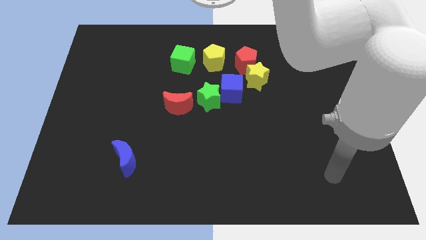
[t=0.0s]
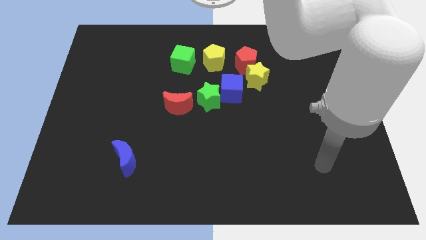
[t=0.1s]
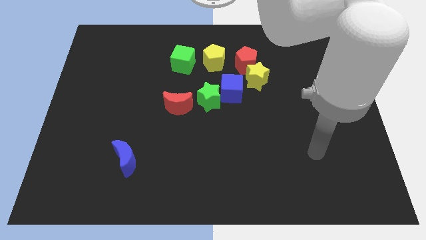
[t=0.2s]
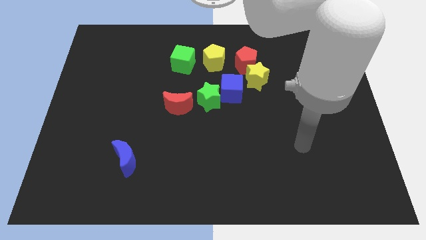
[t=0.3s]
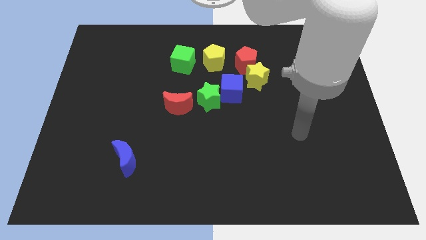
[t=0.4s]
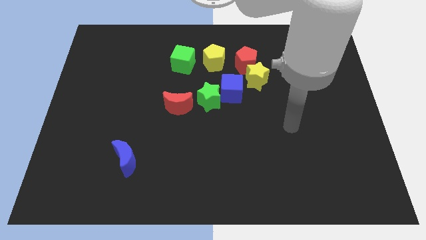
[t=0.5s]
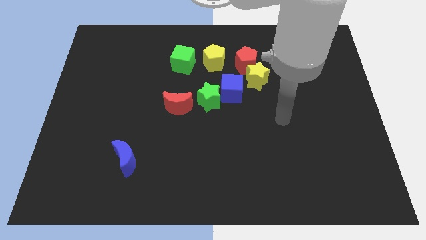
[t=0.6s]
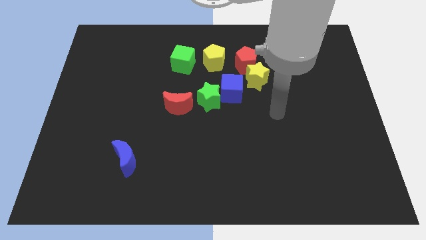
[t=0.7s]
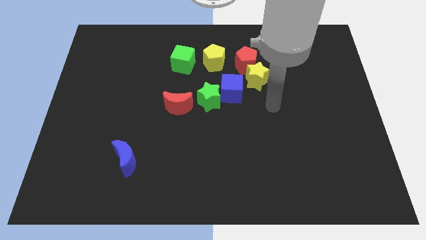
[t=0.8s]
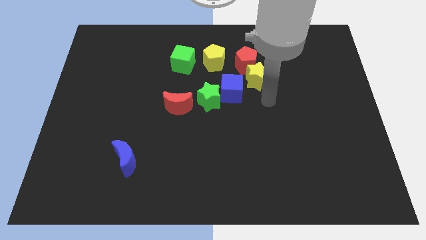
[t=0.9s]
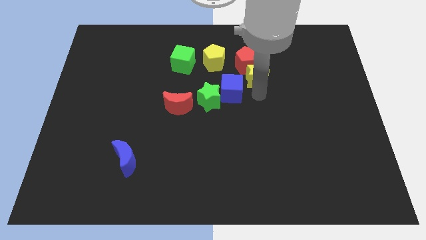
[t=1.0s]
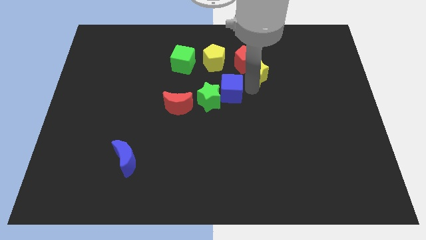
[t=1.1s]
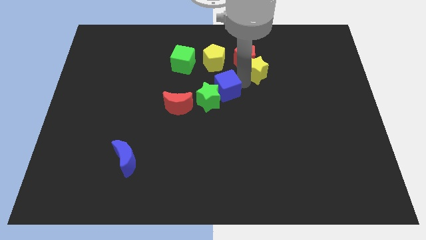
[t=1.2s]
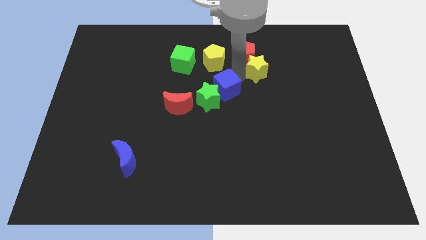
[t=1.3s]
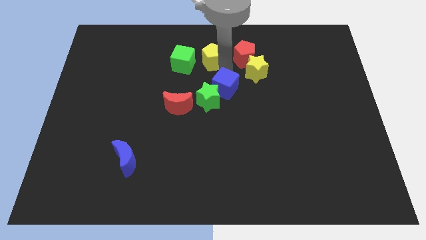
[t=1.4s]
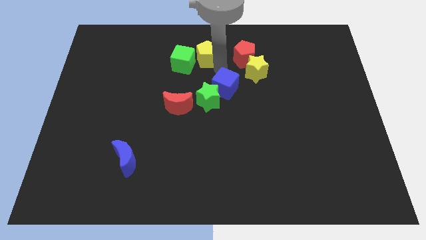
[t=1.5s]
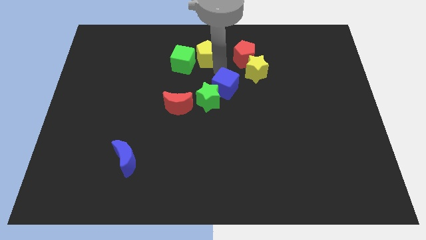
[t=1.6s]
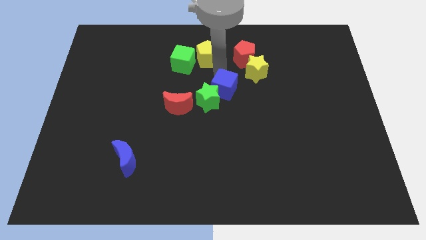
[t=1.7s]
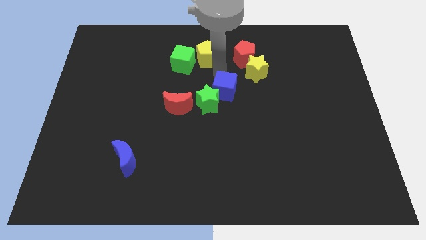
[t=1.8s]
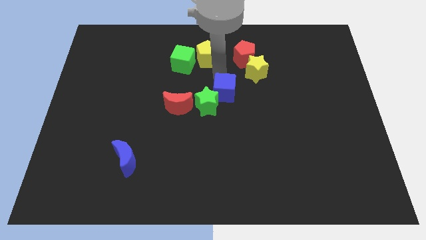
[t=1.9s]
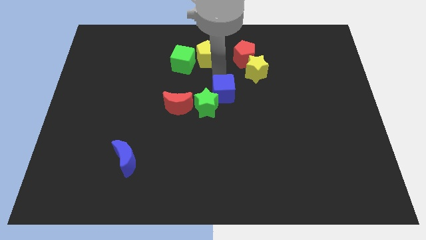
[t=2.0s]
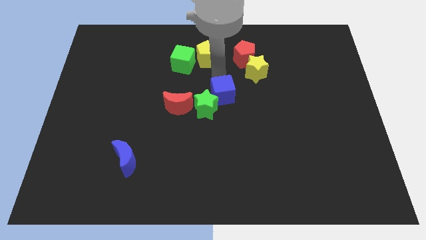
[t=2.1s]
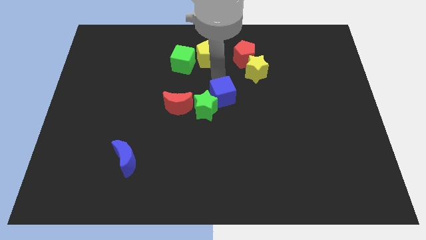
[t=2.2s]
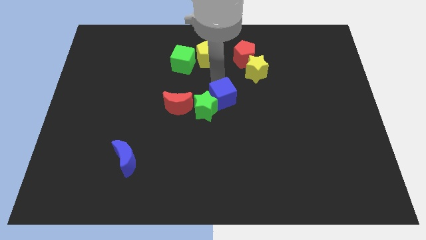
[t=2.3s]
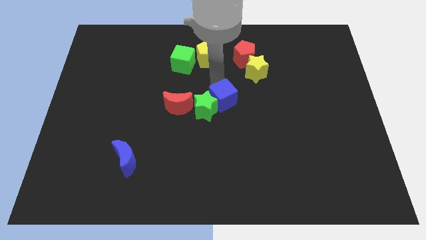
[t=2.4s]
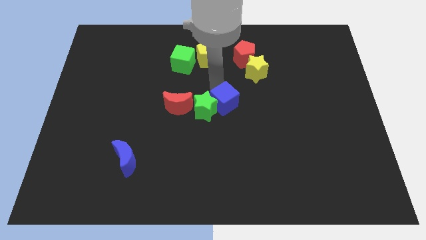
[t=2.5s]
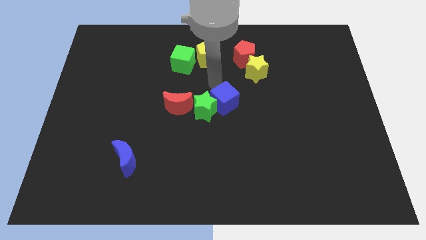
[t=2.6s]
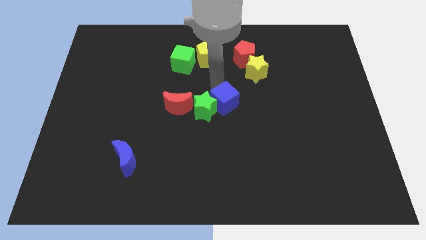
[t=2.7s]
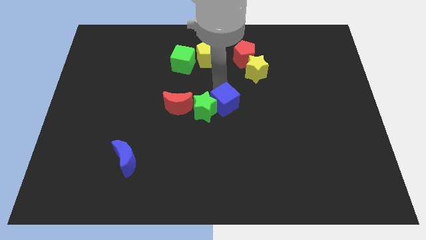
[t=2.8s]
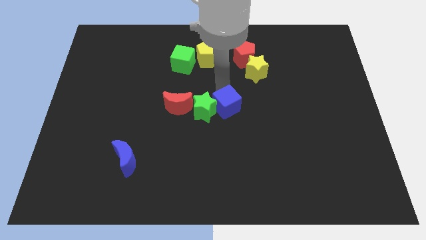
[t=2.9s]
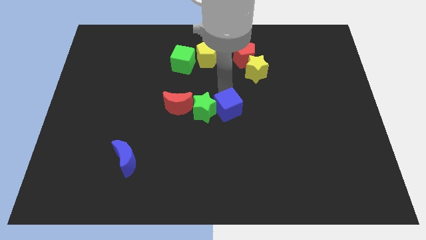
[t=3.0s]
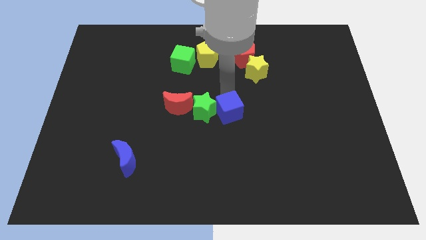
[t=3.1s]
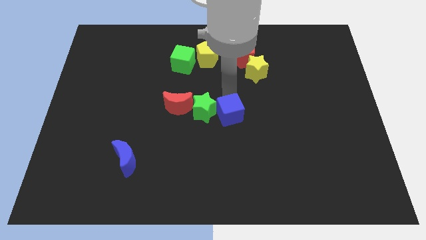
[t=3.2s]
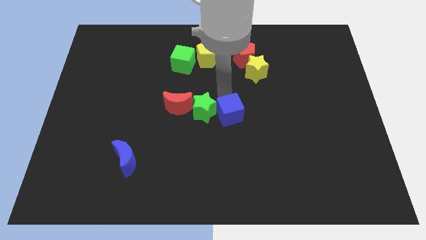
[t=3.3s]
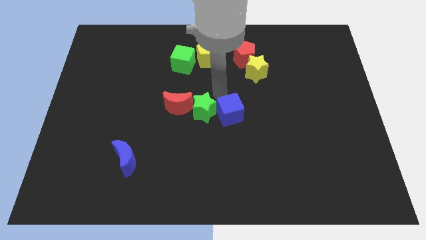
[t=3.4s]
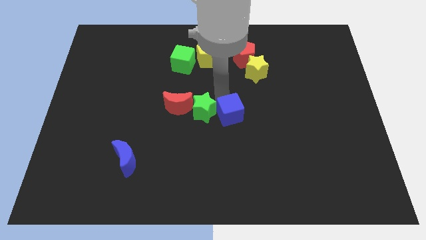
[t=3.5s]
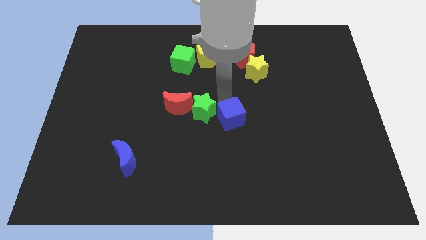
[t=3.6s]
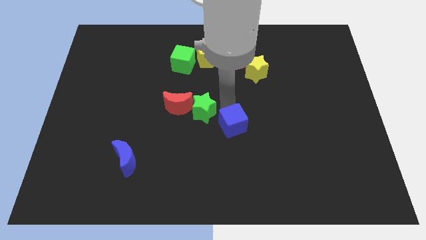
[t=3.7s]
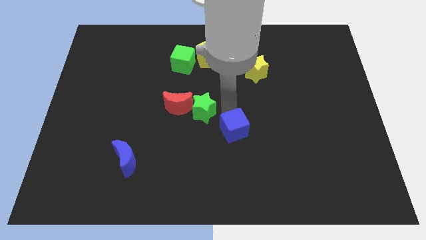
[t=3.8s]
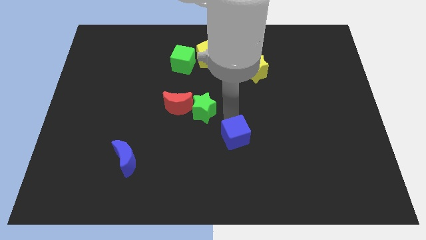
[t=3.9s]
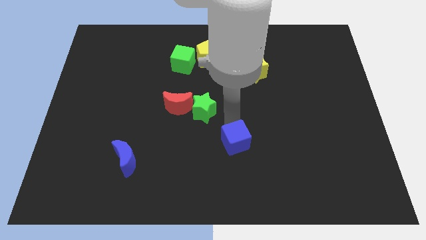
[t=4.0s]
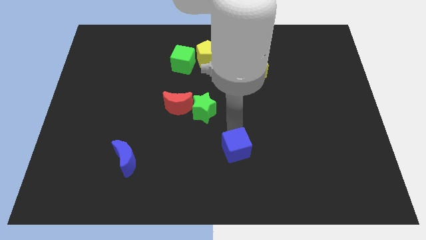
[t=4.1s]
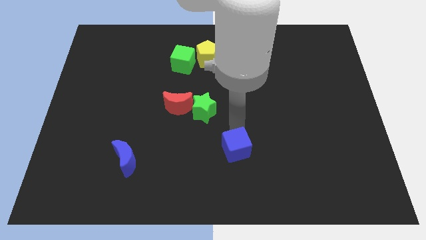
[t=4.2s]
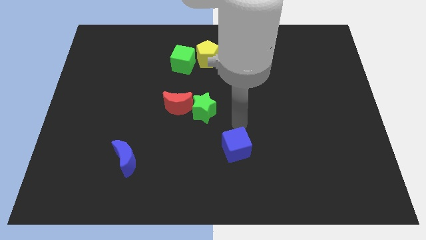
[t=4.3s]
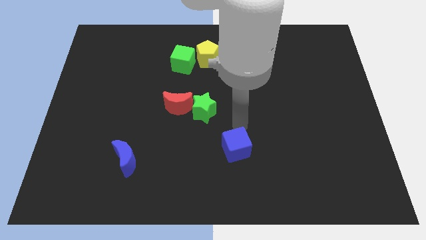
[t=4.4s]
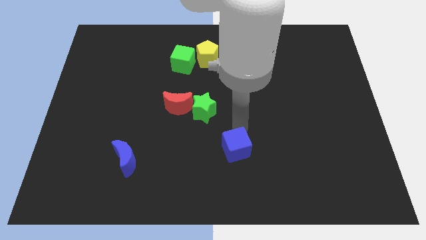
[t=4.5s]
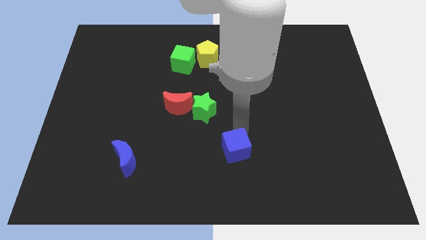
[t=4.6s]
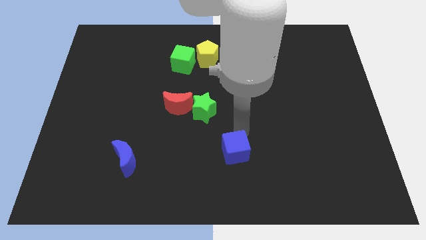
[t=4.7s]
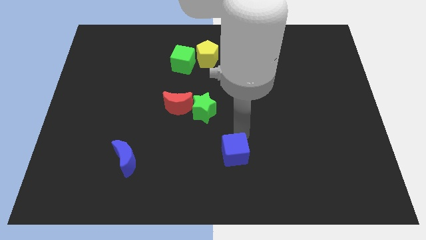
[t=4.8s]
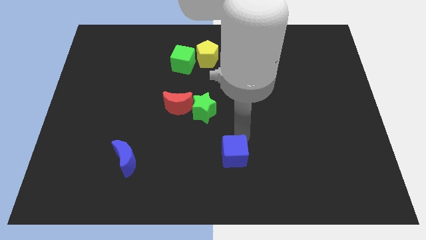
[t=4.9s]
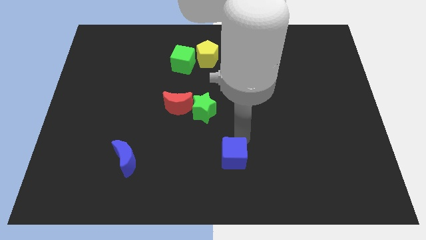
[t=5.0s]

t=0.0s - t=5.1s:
move the blue cube to the bottom side

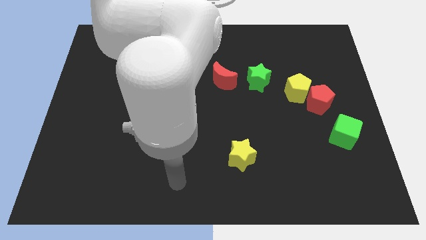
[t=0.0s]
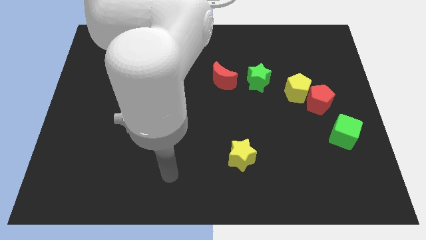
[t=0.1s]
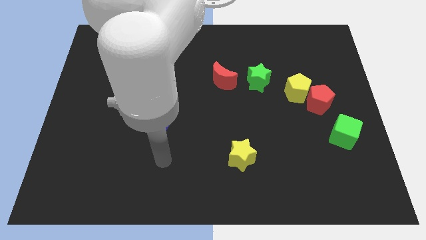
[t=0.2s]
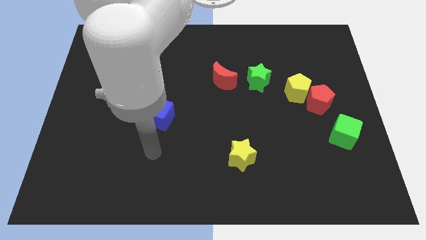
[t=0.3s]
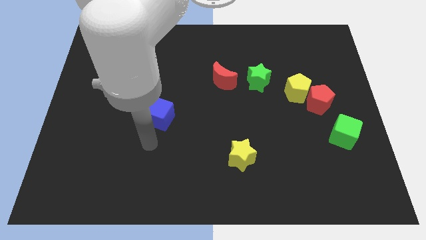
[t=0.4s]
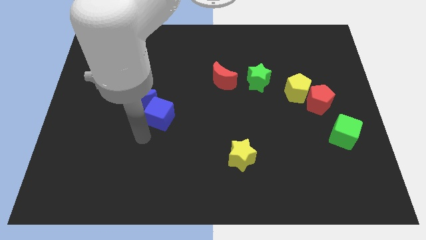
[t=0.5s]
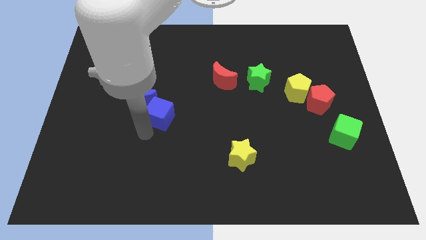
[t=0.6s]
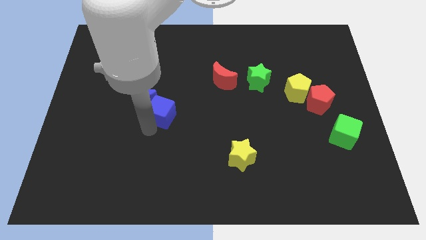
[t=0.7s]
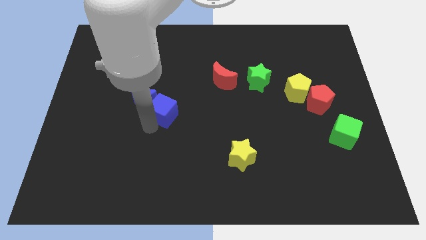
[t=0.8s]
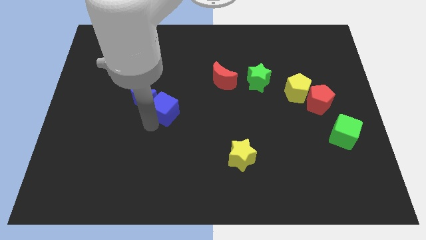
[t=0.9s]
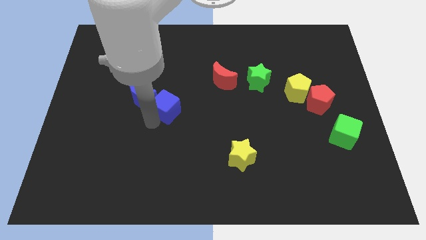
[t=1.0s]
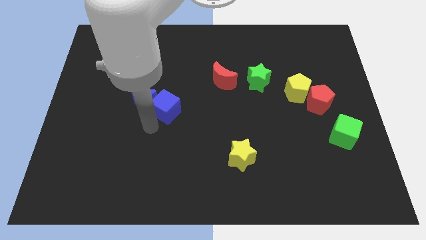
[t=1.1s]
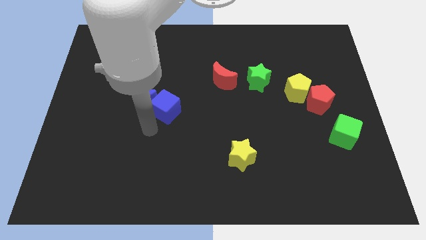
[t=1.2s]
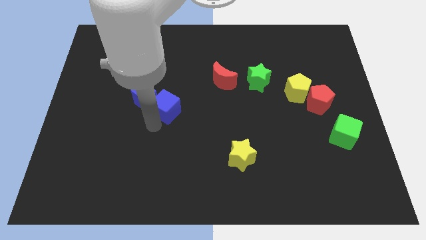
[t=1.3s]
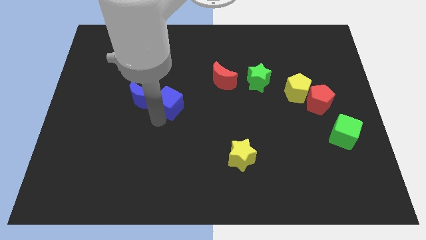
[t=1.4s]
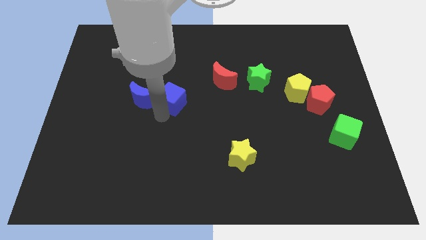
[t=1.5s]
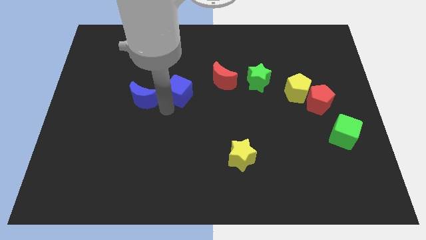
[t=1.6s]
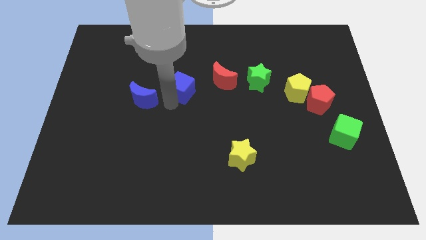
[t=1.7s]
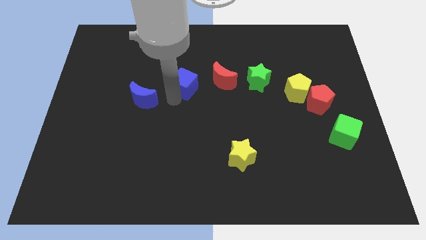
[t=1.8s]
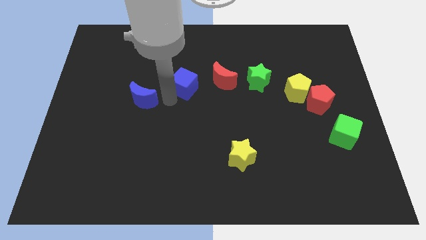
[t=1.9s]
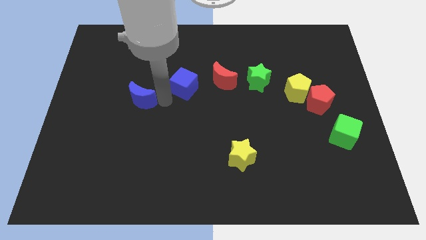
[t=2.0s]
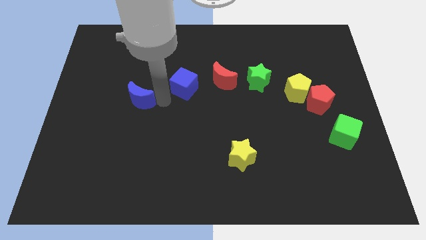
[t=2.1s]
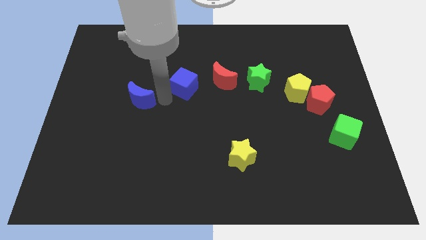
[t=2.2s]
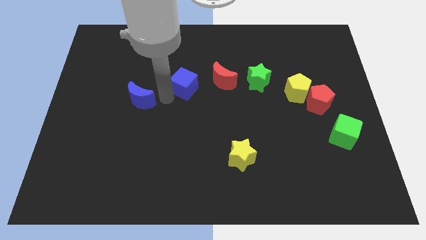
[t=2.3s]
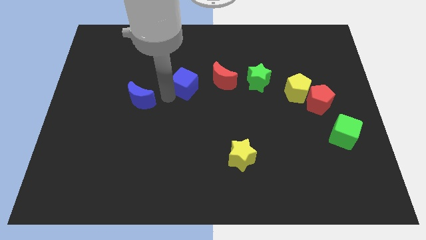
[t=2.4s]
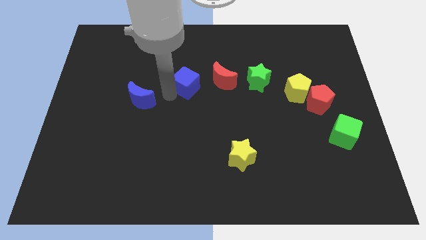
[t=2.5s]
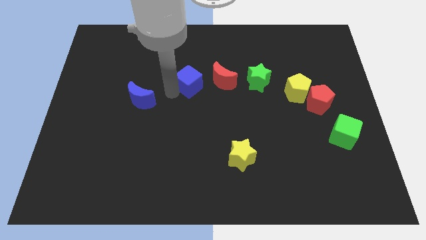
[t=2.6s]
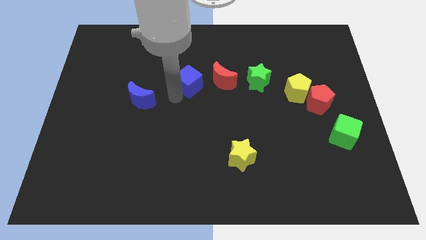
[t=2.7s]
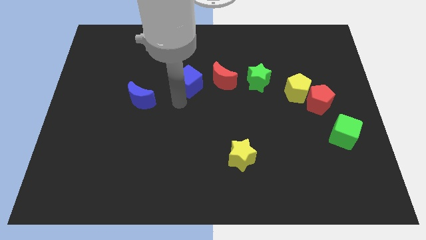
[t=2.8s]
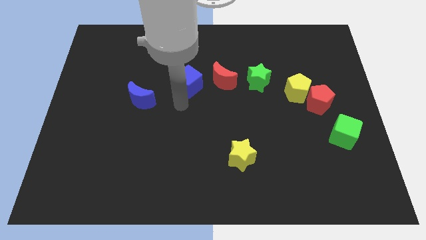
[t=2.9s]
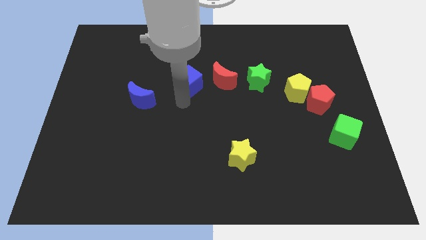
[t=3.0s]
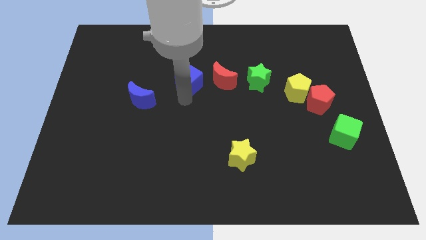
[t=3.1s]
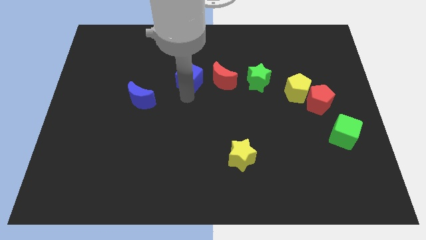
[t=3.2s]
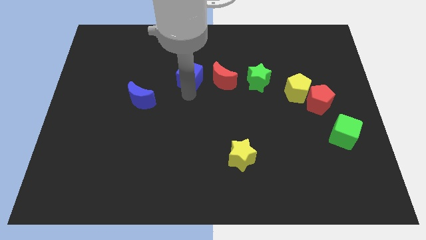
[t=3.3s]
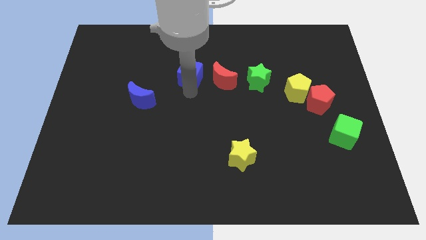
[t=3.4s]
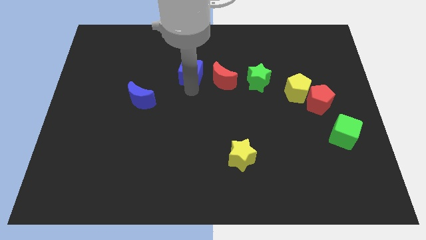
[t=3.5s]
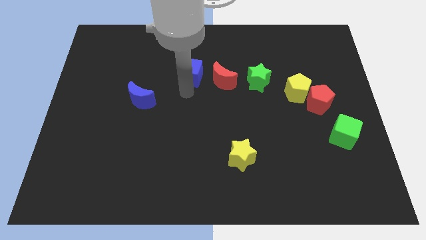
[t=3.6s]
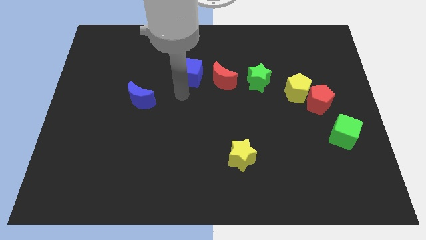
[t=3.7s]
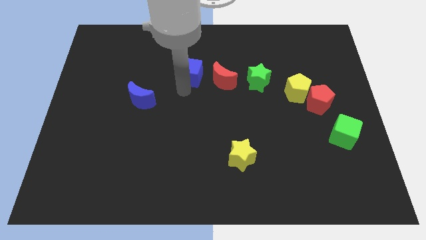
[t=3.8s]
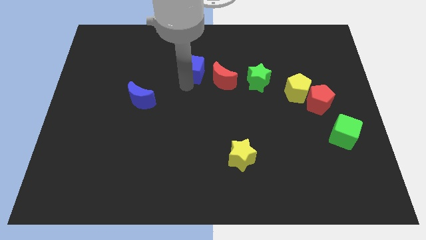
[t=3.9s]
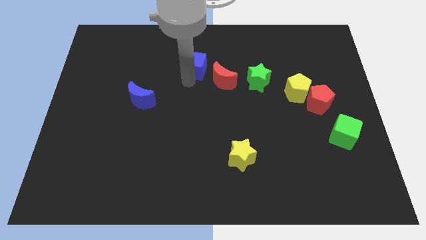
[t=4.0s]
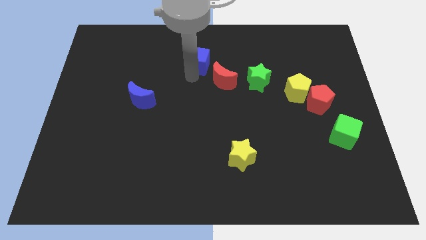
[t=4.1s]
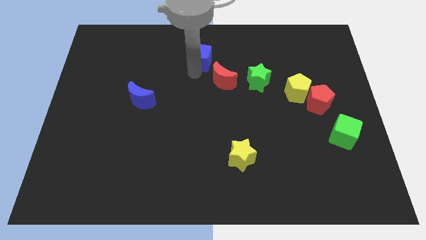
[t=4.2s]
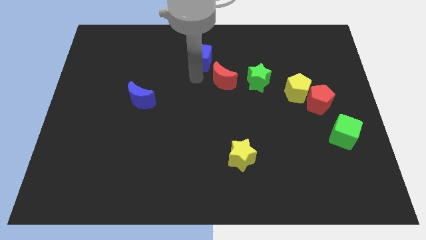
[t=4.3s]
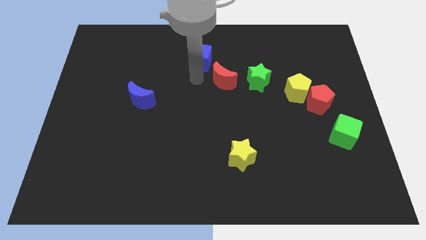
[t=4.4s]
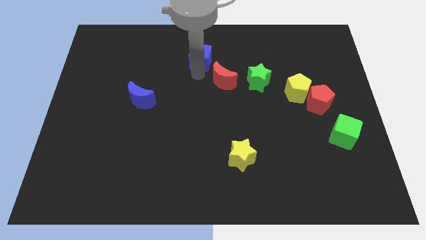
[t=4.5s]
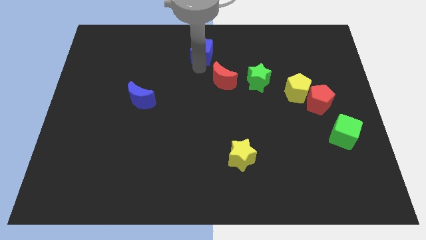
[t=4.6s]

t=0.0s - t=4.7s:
put the blue cube to the top
